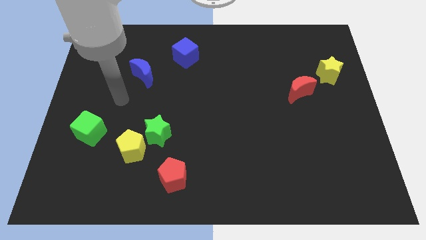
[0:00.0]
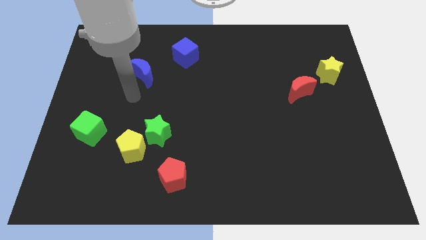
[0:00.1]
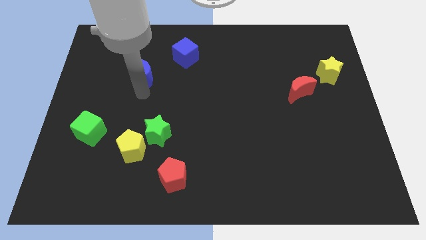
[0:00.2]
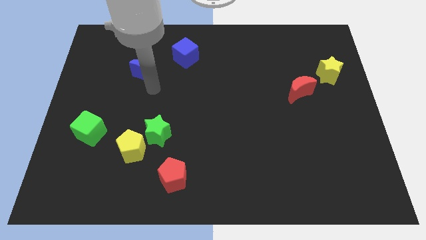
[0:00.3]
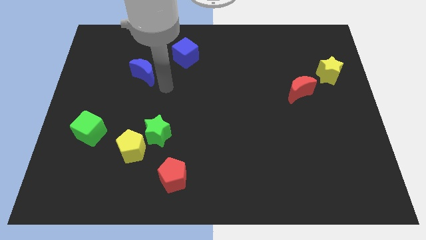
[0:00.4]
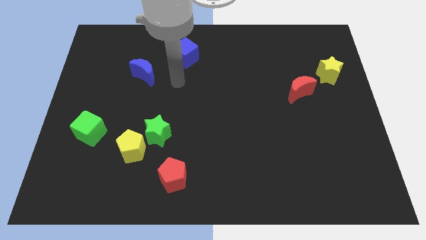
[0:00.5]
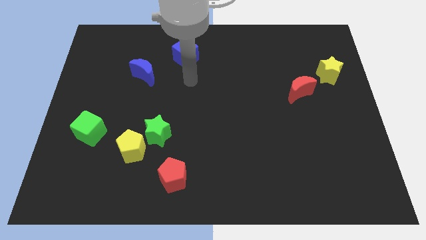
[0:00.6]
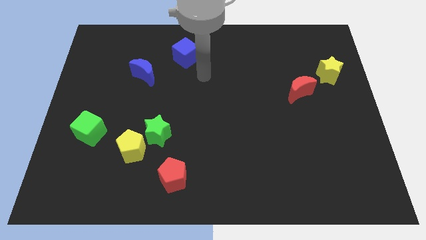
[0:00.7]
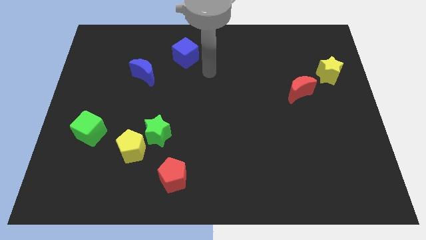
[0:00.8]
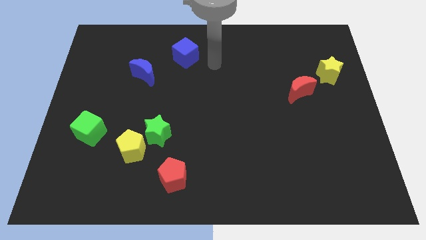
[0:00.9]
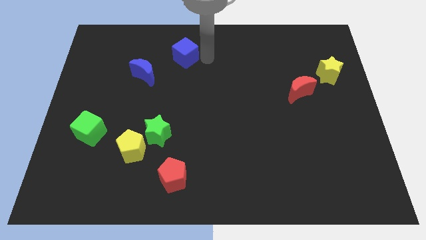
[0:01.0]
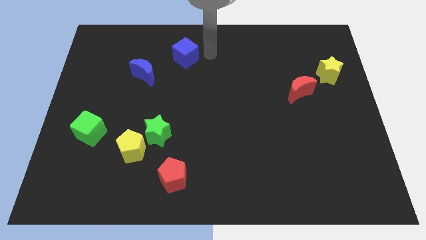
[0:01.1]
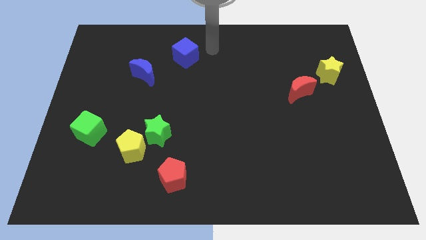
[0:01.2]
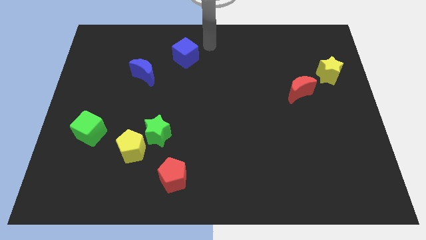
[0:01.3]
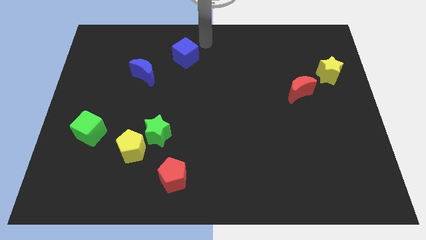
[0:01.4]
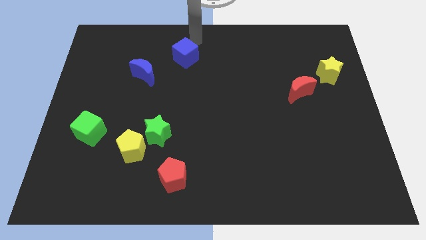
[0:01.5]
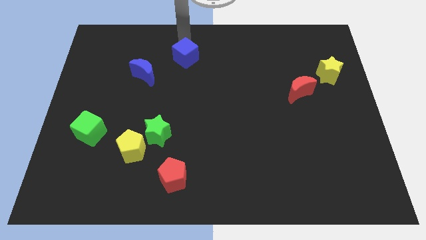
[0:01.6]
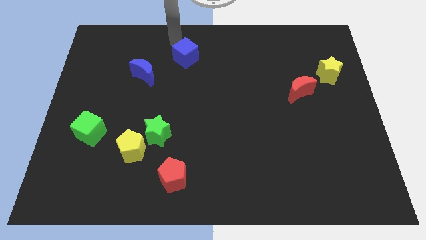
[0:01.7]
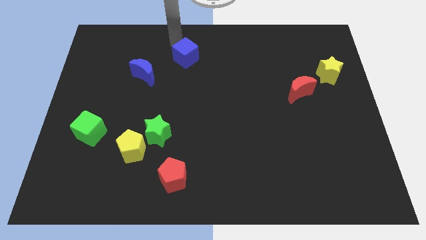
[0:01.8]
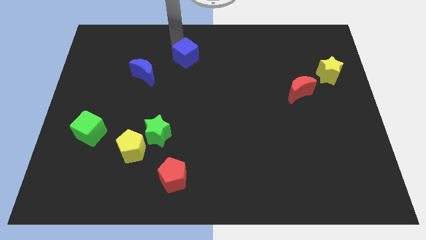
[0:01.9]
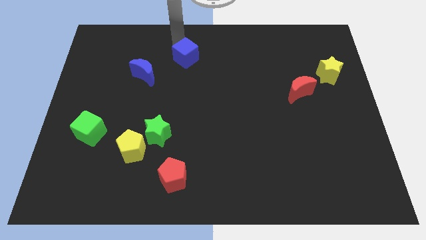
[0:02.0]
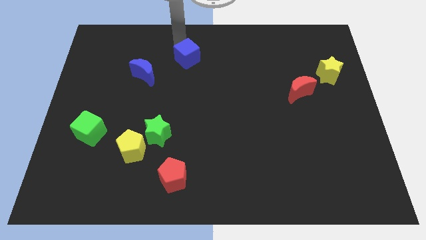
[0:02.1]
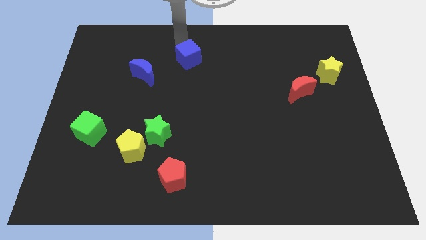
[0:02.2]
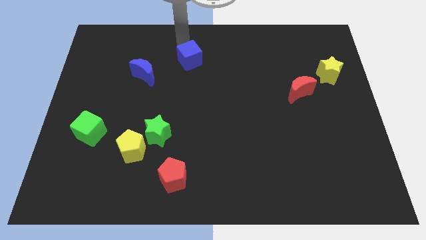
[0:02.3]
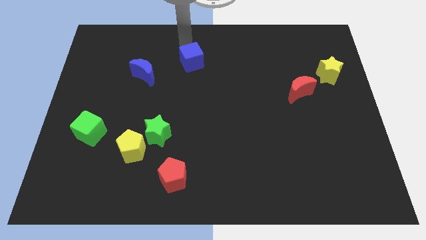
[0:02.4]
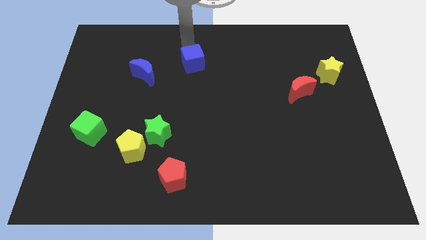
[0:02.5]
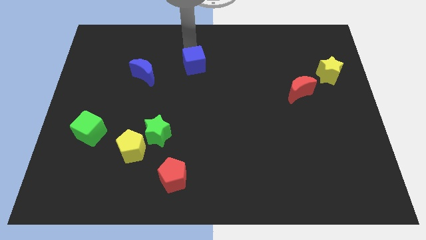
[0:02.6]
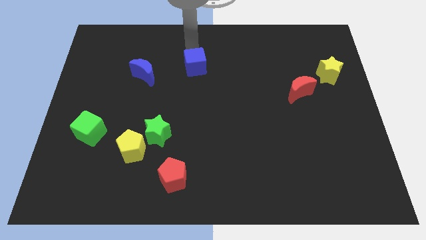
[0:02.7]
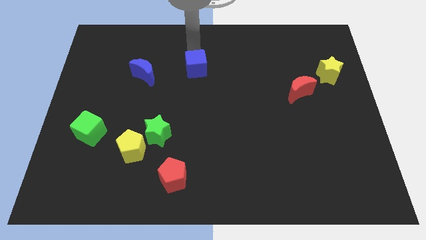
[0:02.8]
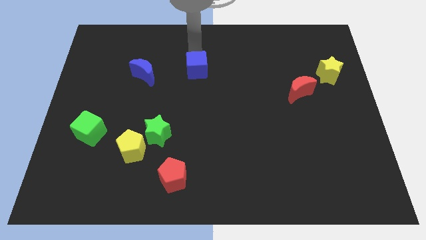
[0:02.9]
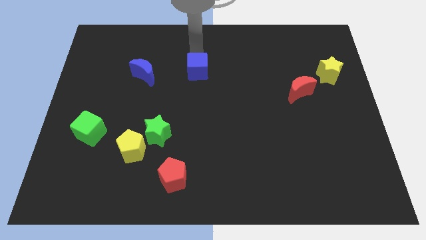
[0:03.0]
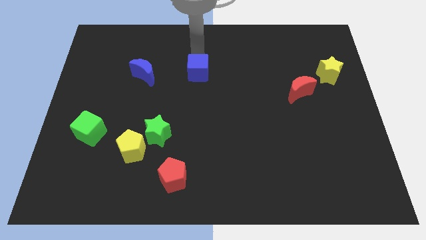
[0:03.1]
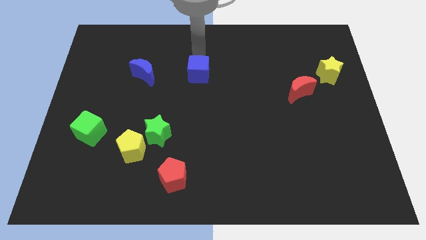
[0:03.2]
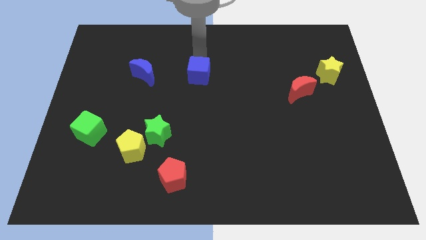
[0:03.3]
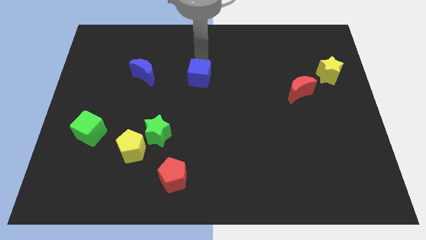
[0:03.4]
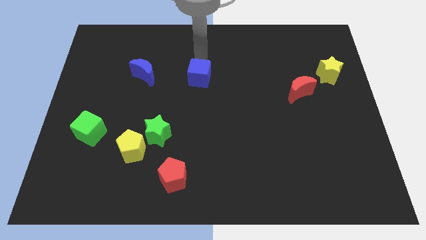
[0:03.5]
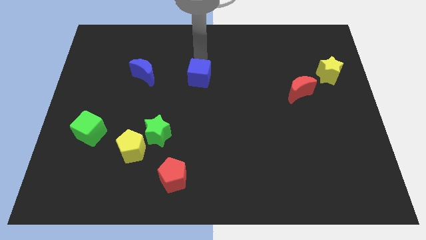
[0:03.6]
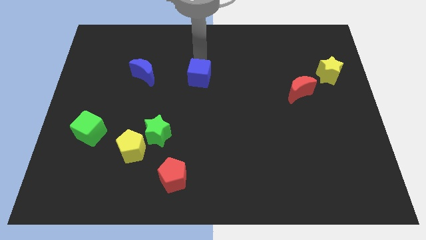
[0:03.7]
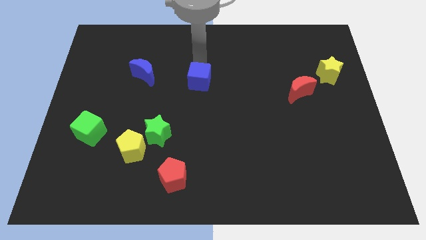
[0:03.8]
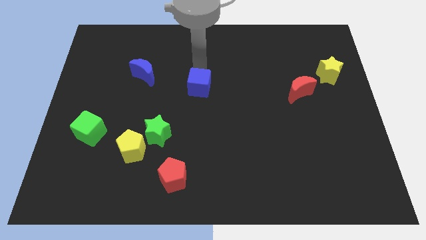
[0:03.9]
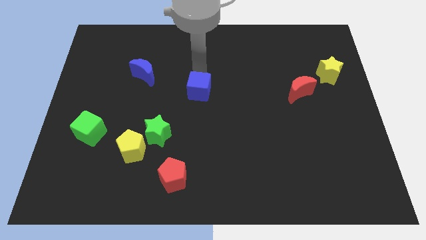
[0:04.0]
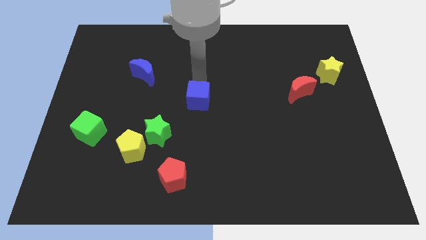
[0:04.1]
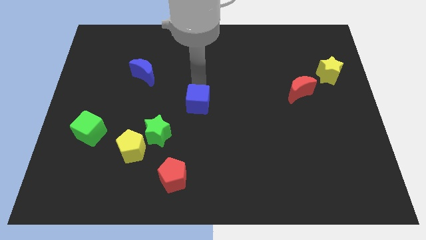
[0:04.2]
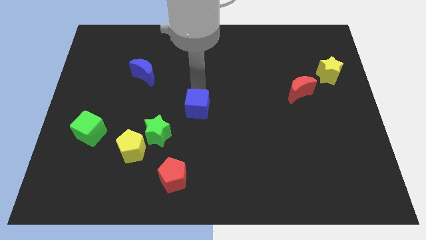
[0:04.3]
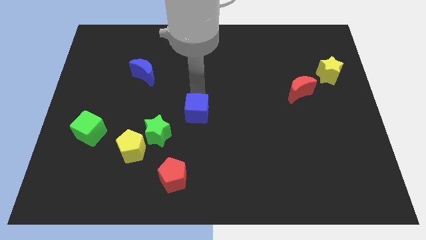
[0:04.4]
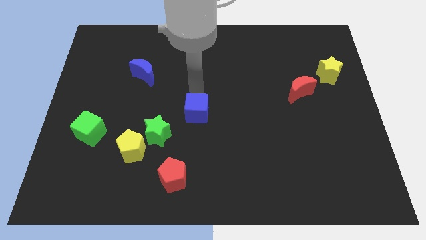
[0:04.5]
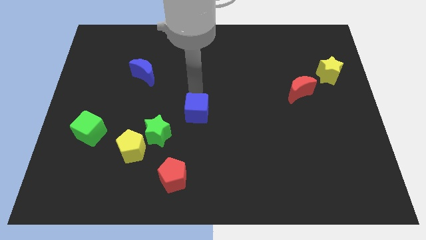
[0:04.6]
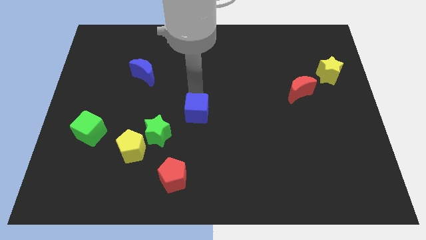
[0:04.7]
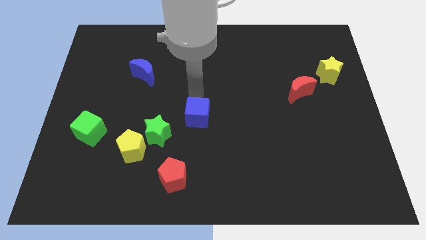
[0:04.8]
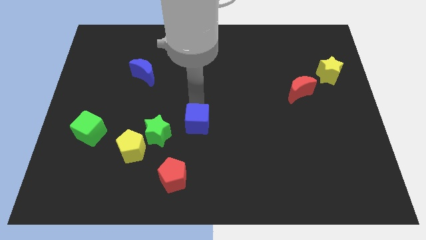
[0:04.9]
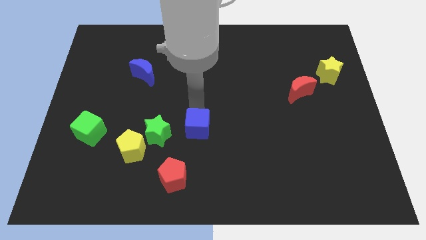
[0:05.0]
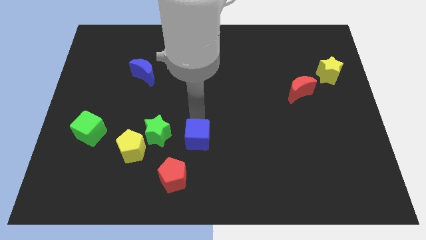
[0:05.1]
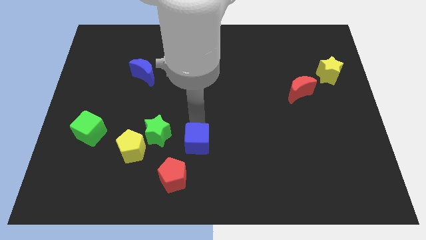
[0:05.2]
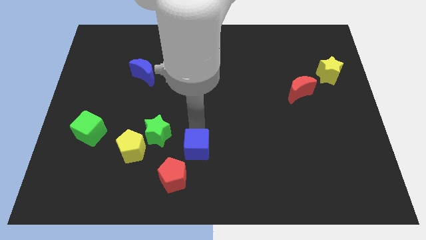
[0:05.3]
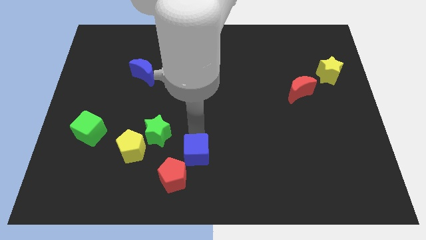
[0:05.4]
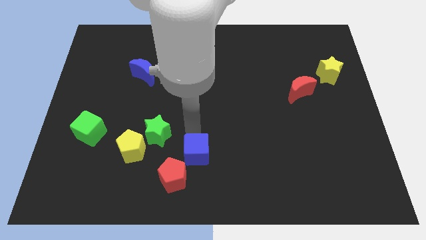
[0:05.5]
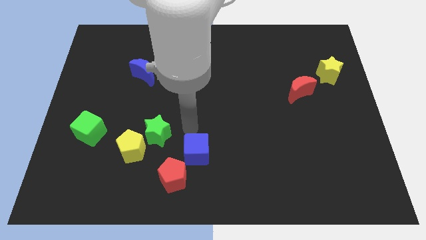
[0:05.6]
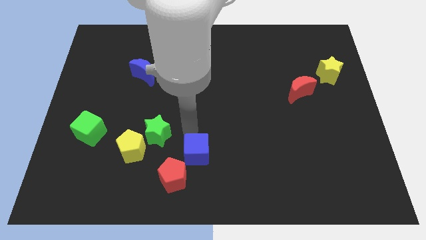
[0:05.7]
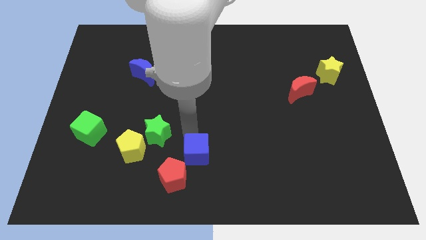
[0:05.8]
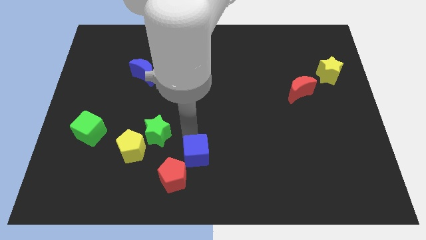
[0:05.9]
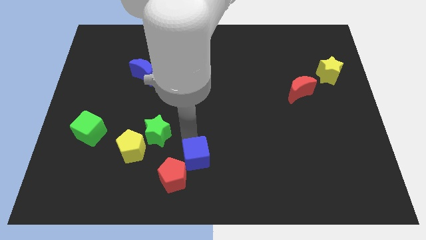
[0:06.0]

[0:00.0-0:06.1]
slide the blue cube to the bottom side

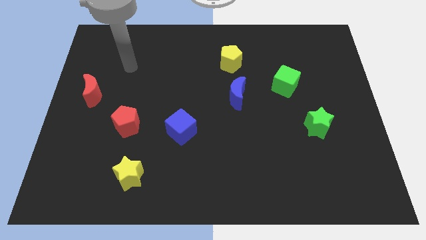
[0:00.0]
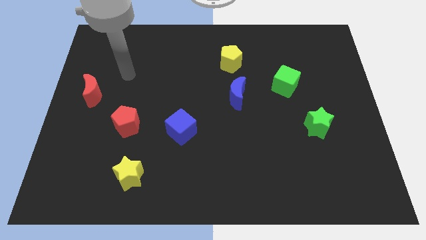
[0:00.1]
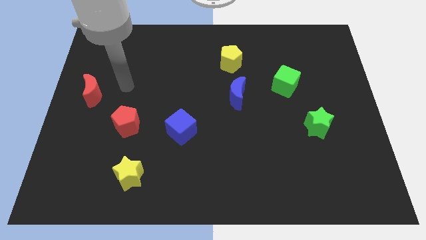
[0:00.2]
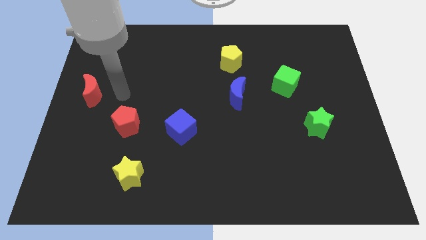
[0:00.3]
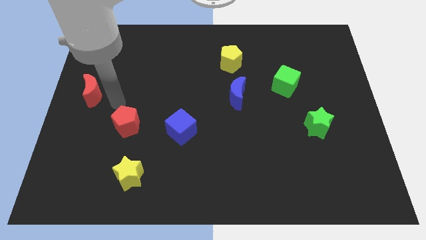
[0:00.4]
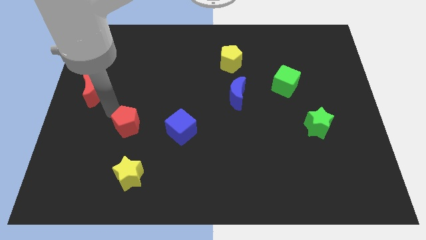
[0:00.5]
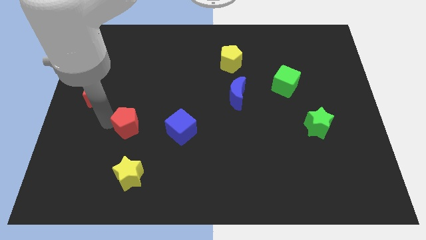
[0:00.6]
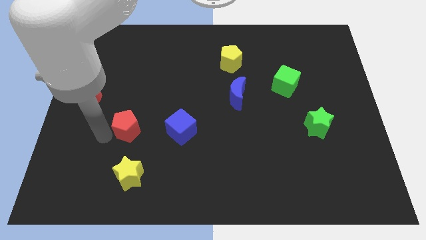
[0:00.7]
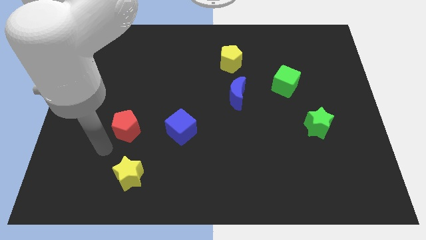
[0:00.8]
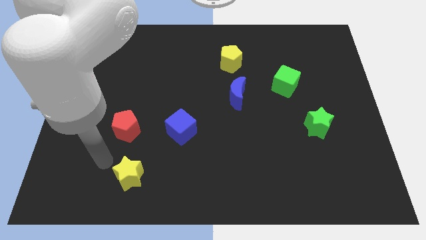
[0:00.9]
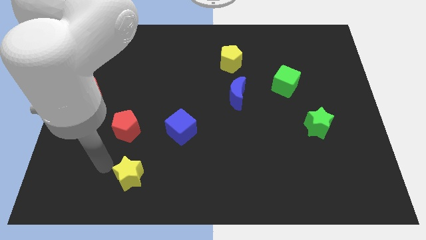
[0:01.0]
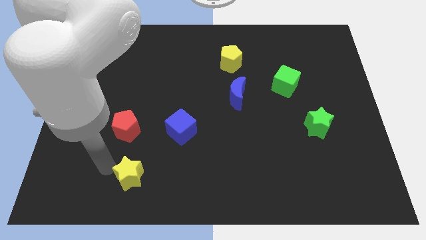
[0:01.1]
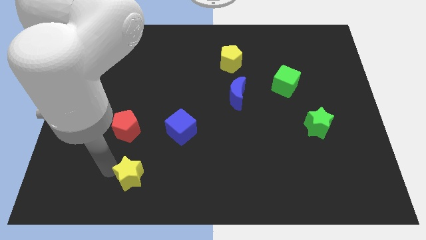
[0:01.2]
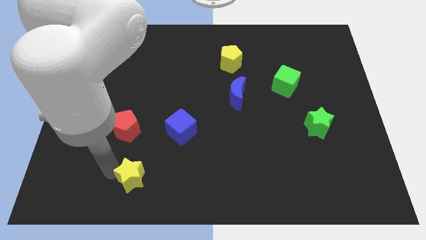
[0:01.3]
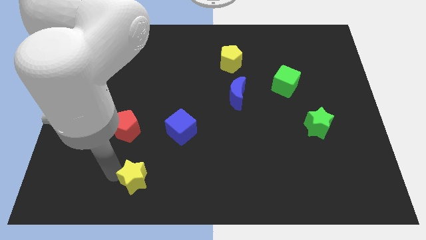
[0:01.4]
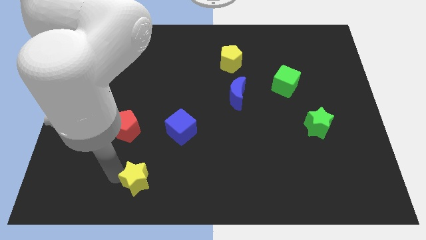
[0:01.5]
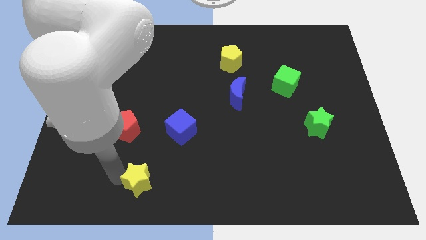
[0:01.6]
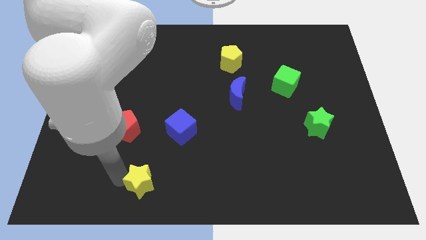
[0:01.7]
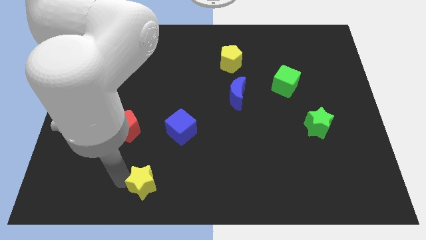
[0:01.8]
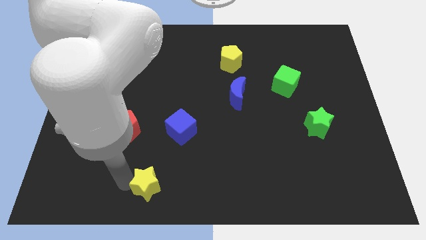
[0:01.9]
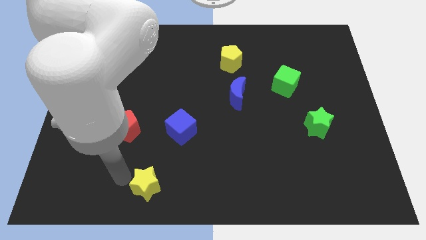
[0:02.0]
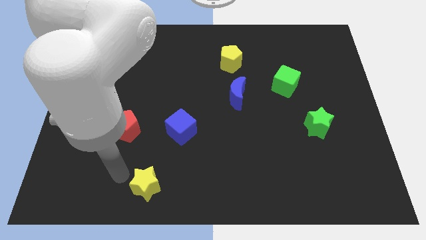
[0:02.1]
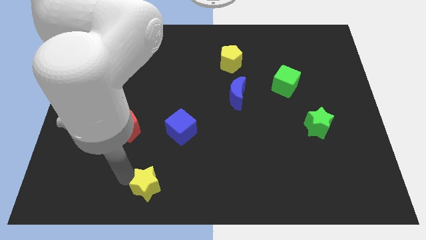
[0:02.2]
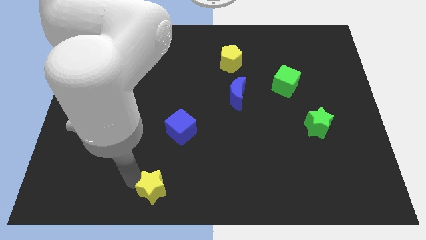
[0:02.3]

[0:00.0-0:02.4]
move the yellow star to the bottom side
